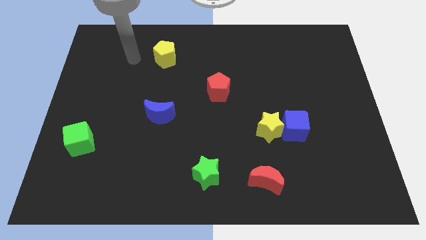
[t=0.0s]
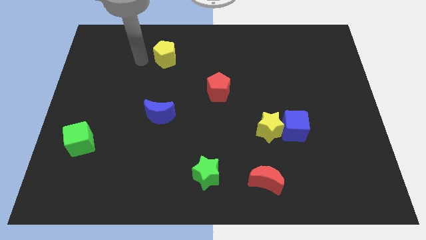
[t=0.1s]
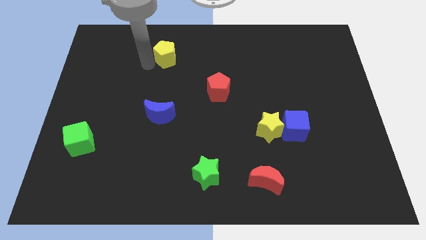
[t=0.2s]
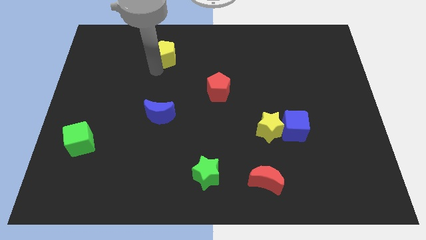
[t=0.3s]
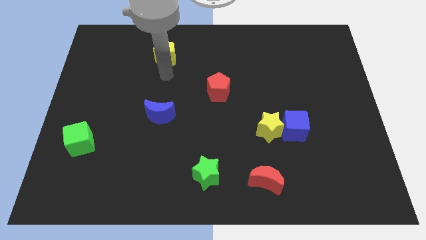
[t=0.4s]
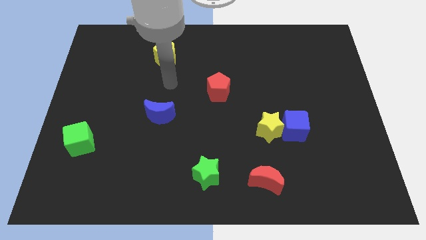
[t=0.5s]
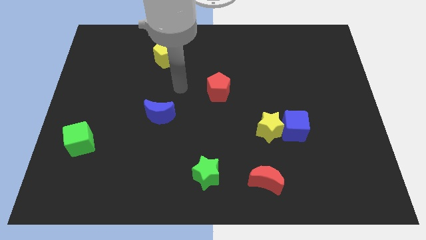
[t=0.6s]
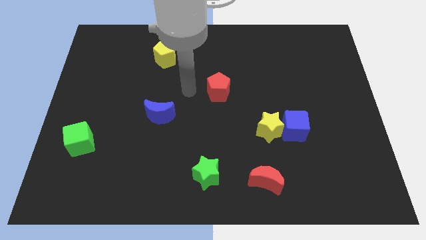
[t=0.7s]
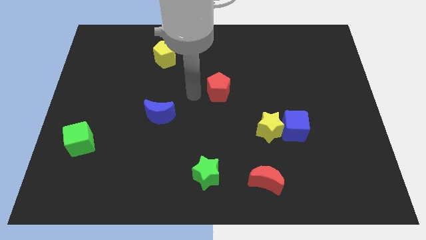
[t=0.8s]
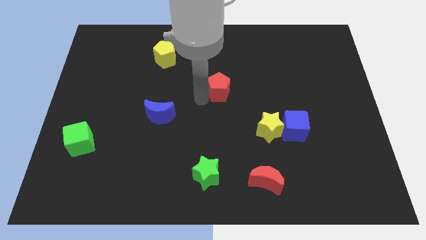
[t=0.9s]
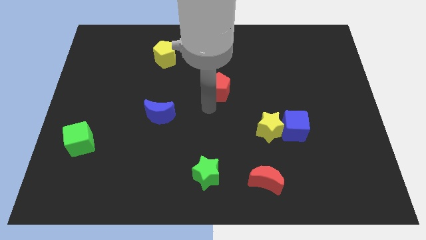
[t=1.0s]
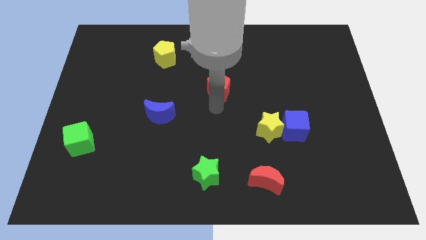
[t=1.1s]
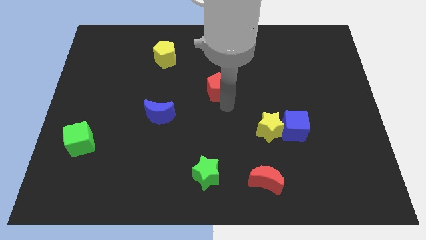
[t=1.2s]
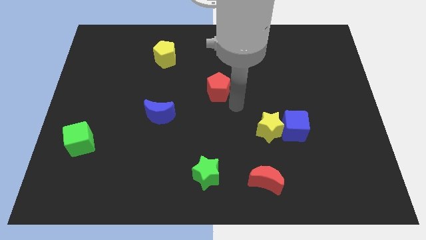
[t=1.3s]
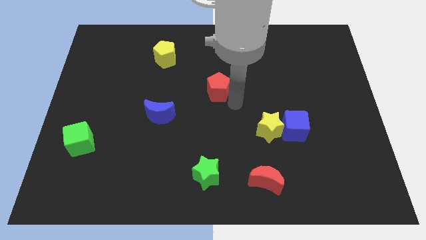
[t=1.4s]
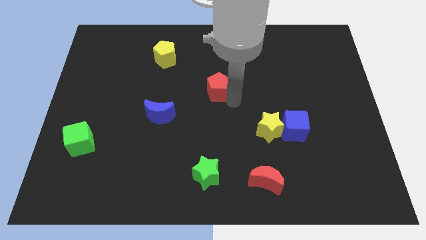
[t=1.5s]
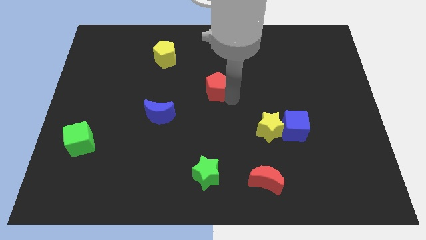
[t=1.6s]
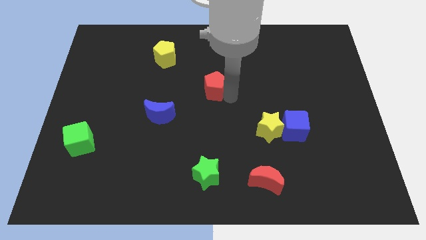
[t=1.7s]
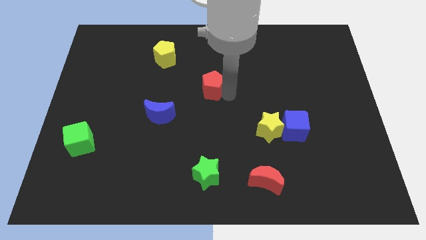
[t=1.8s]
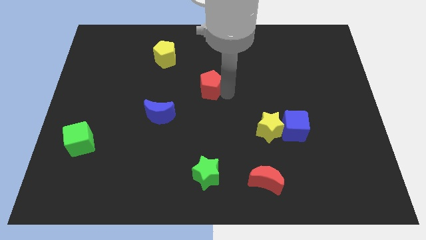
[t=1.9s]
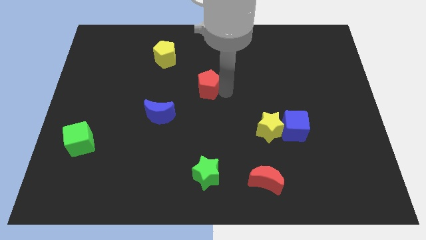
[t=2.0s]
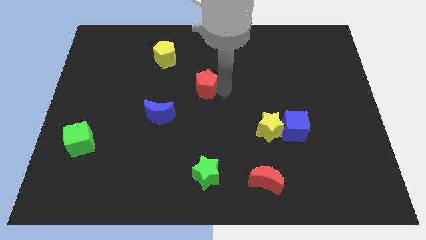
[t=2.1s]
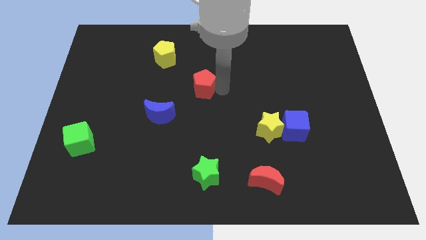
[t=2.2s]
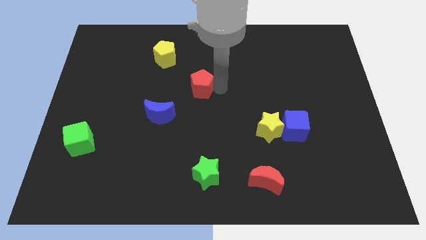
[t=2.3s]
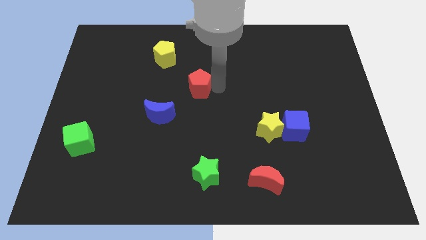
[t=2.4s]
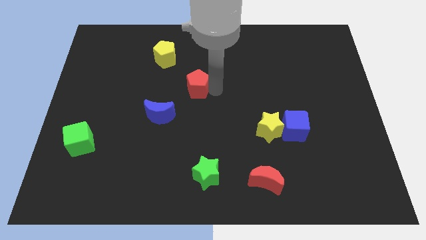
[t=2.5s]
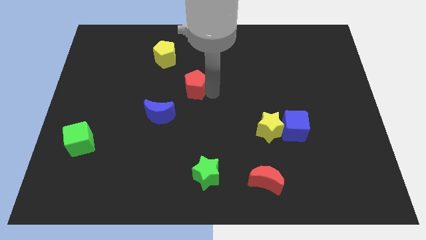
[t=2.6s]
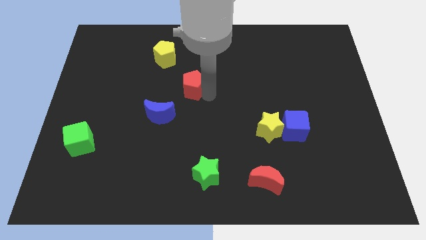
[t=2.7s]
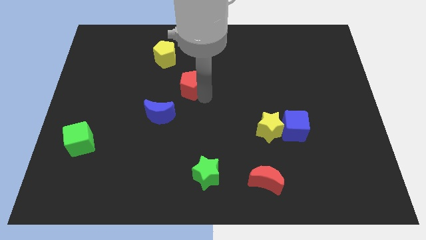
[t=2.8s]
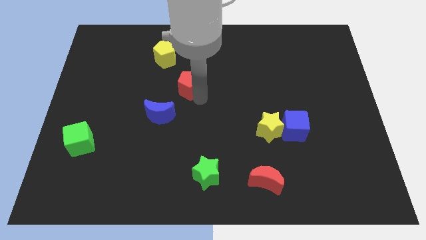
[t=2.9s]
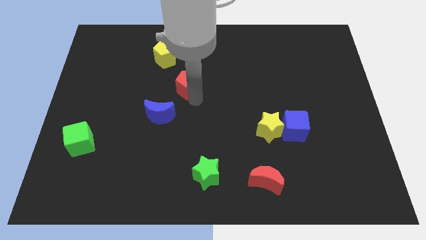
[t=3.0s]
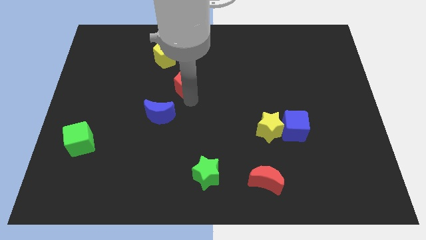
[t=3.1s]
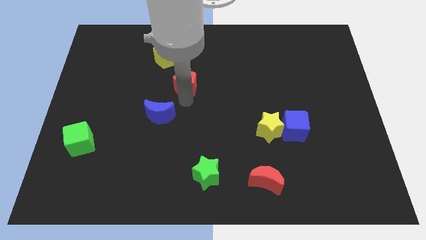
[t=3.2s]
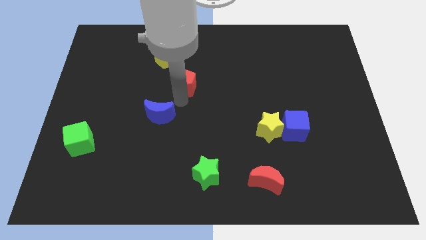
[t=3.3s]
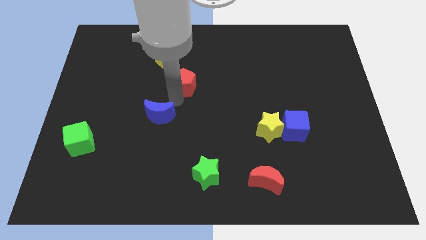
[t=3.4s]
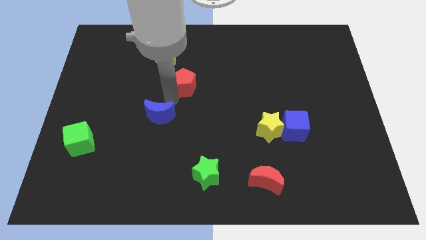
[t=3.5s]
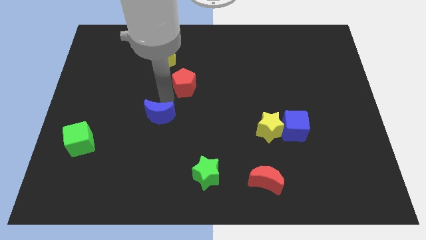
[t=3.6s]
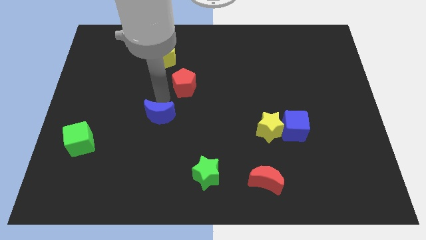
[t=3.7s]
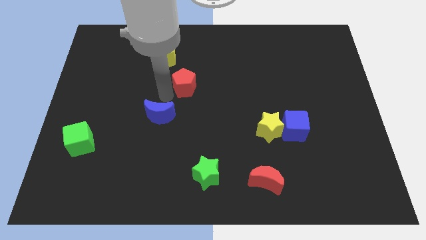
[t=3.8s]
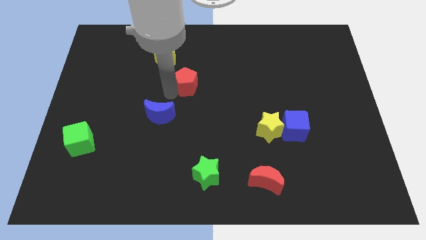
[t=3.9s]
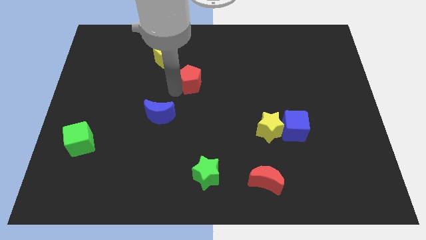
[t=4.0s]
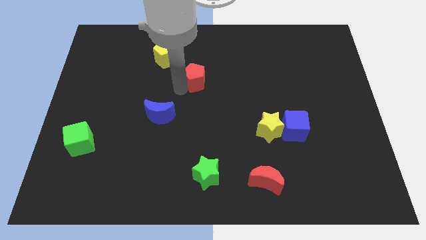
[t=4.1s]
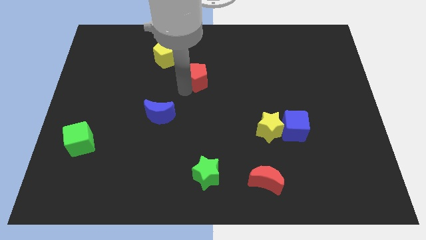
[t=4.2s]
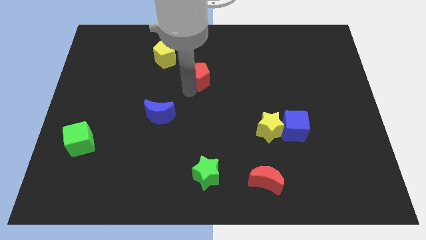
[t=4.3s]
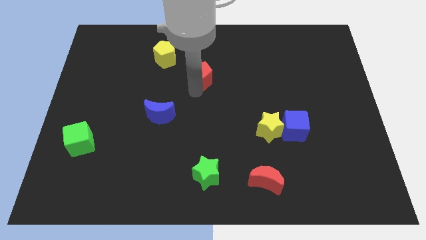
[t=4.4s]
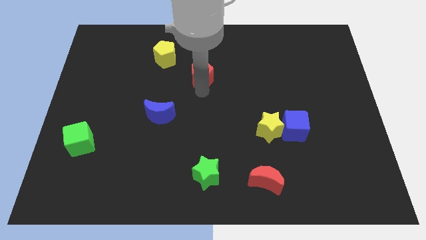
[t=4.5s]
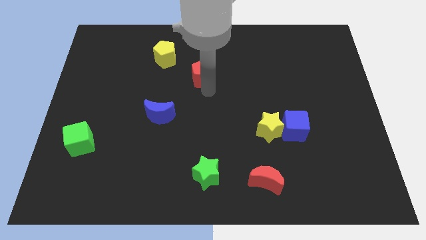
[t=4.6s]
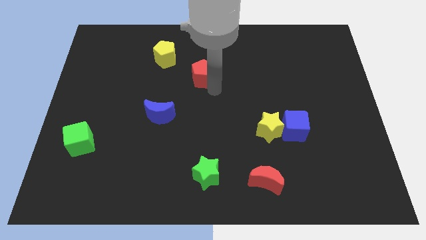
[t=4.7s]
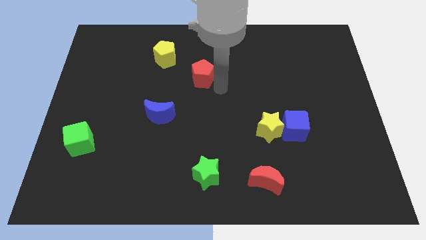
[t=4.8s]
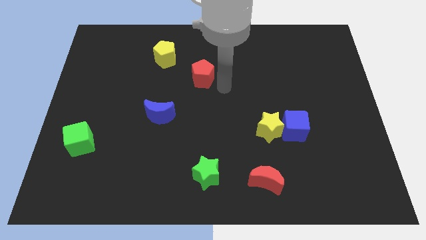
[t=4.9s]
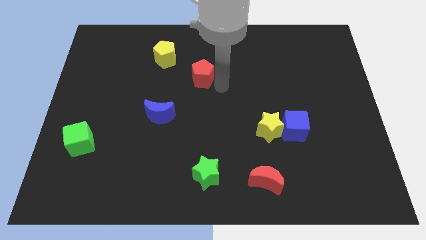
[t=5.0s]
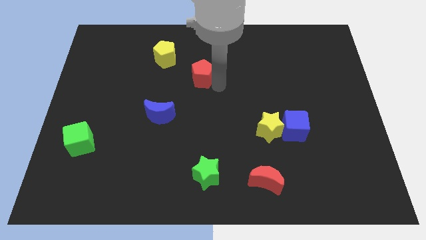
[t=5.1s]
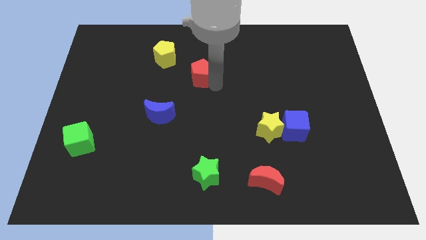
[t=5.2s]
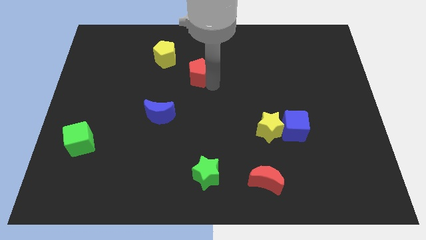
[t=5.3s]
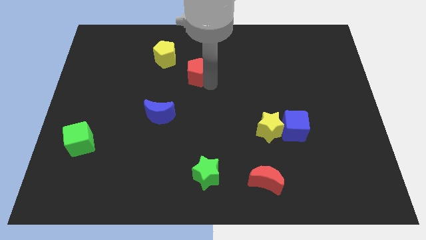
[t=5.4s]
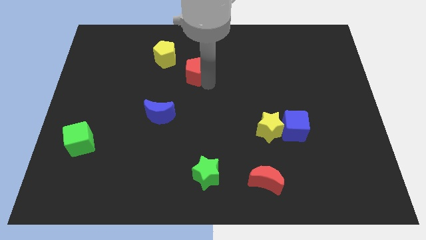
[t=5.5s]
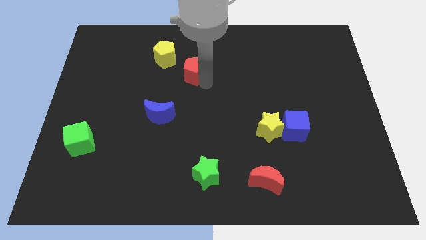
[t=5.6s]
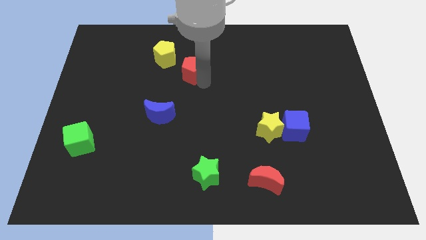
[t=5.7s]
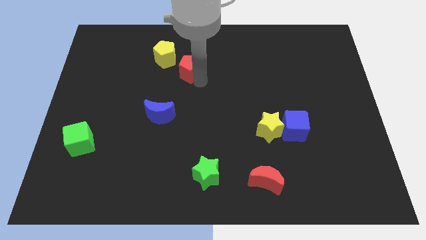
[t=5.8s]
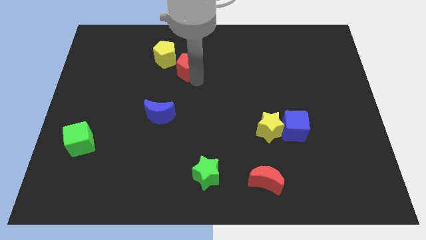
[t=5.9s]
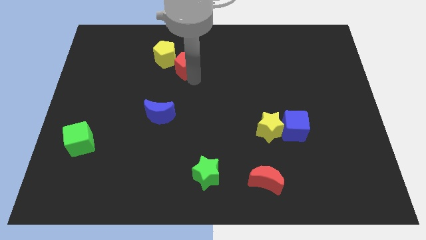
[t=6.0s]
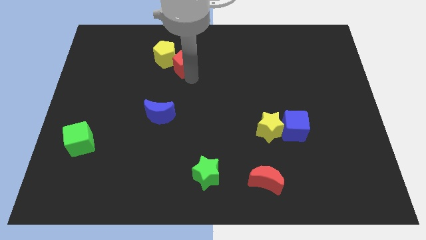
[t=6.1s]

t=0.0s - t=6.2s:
move the red pentagon next to the yellow pentagon

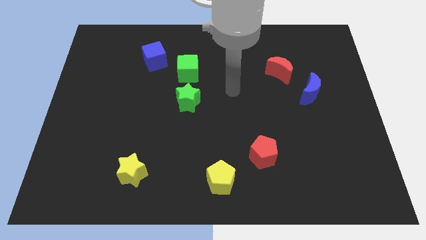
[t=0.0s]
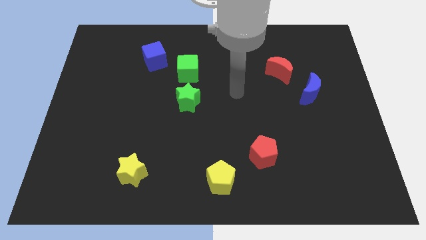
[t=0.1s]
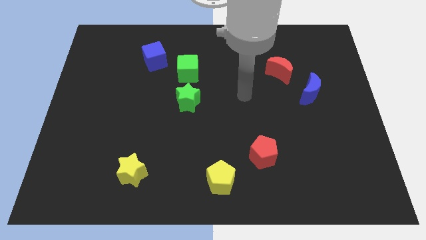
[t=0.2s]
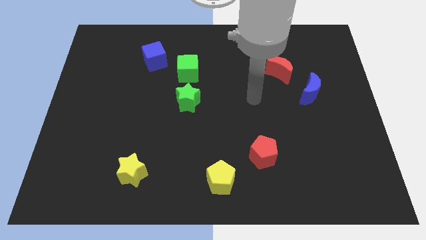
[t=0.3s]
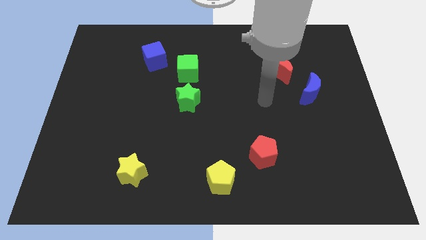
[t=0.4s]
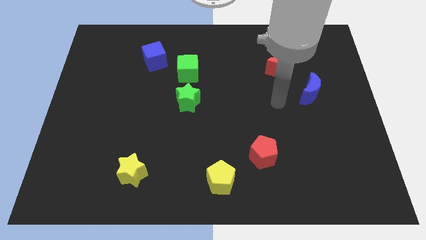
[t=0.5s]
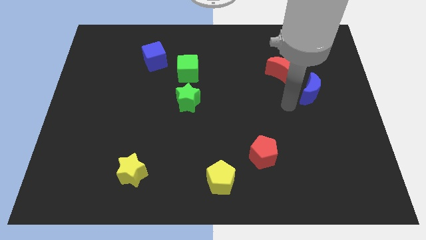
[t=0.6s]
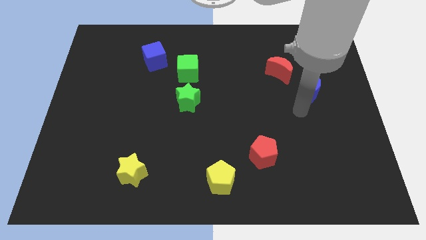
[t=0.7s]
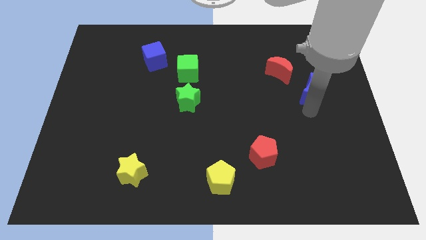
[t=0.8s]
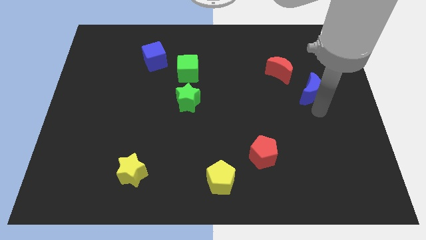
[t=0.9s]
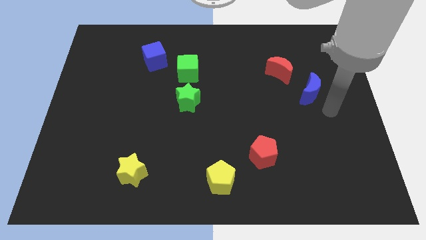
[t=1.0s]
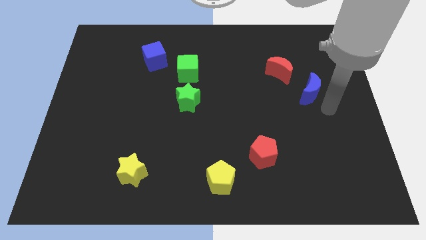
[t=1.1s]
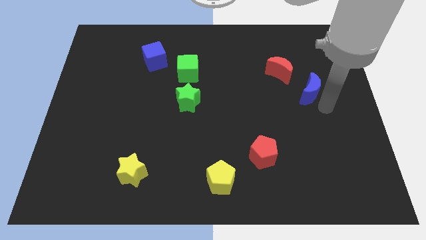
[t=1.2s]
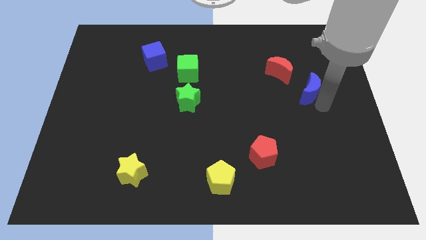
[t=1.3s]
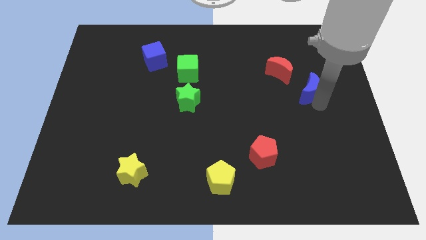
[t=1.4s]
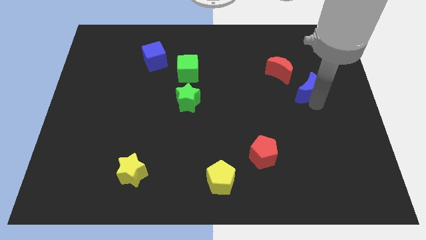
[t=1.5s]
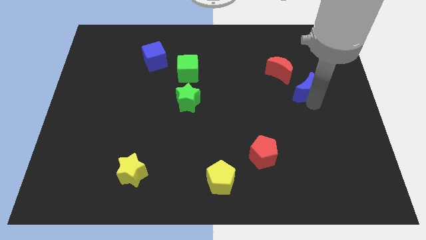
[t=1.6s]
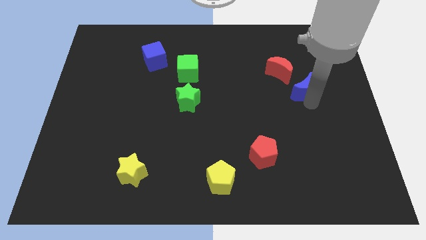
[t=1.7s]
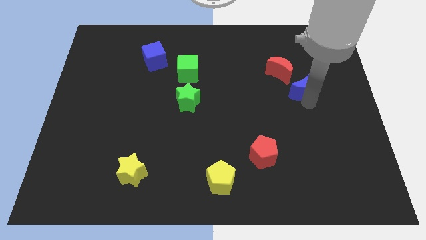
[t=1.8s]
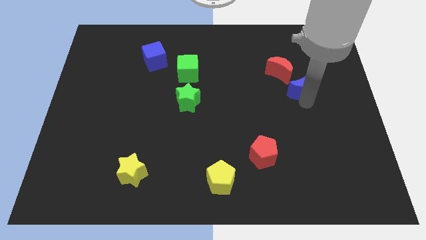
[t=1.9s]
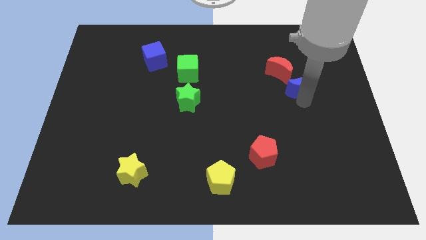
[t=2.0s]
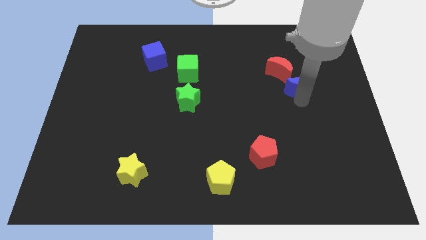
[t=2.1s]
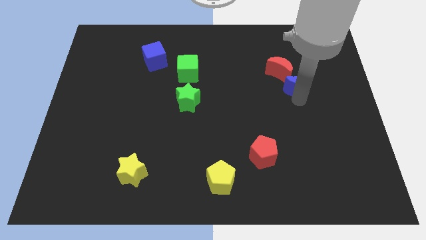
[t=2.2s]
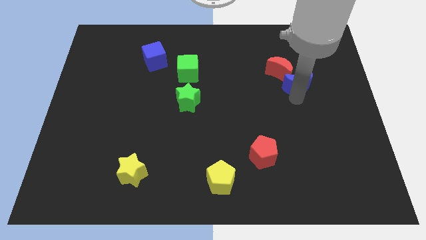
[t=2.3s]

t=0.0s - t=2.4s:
push the blue moon next to the red moon
